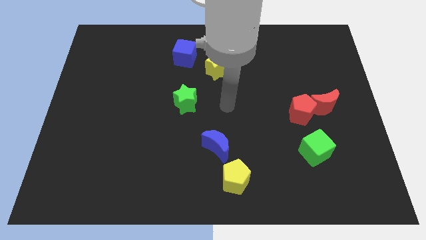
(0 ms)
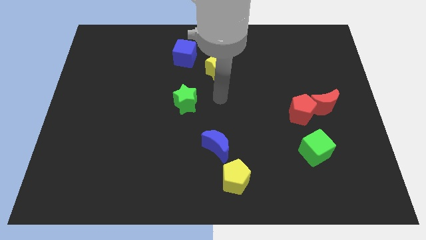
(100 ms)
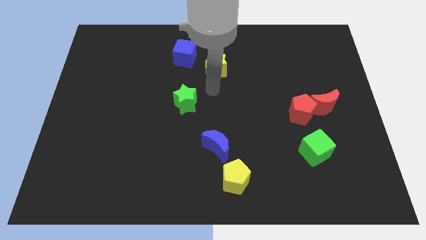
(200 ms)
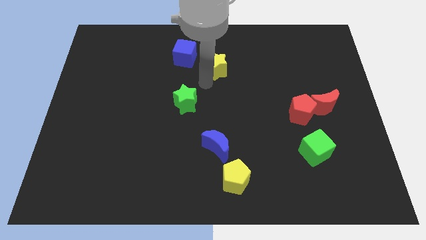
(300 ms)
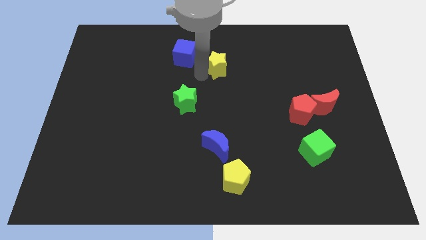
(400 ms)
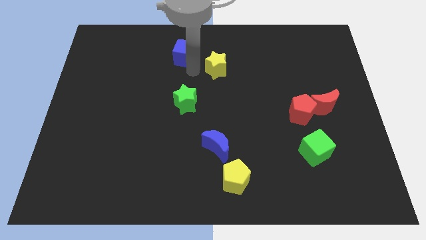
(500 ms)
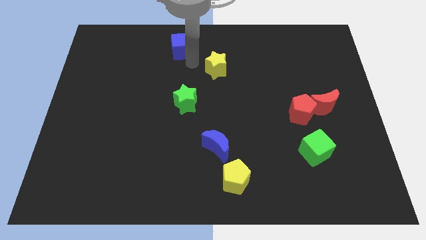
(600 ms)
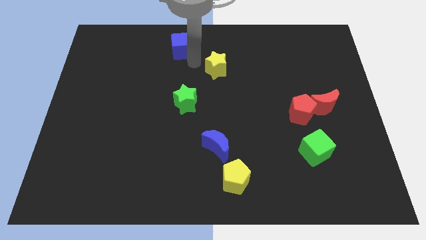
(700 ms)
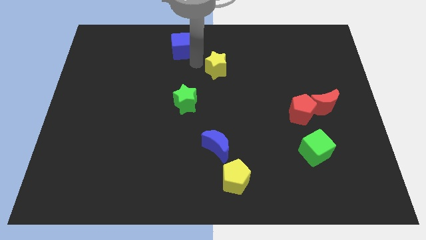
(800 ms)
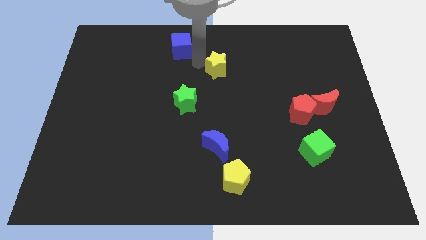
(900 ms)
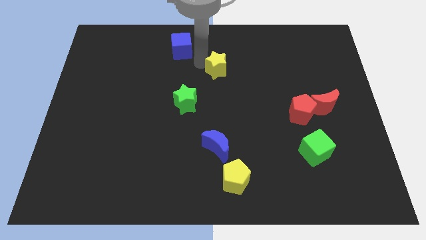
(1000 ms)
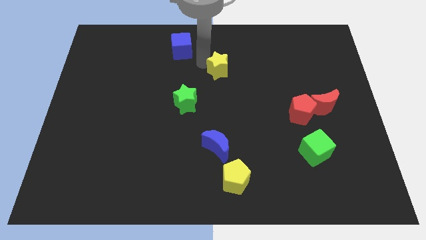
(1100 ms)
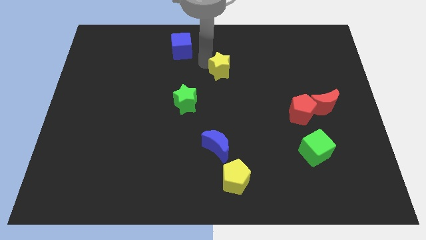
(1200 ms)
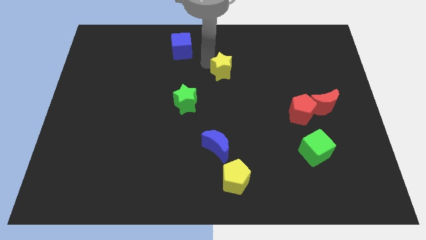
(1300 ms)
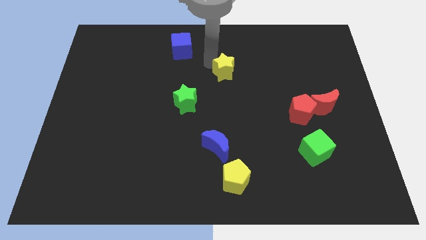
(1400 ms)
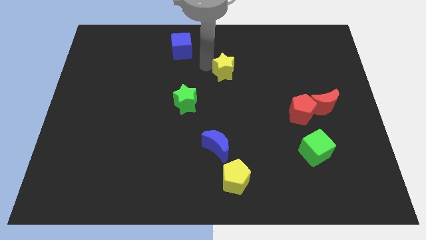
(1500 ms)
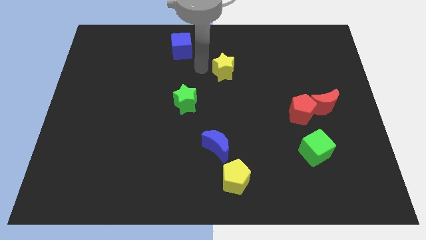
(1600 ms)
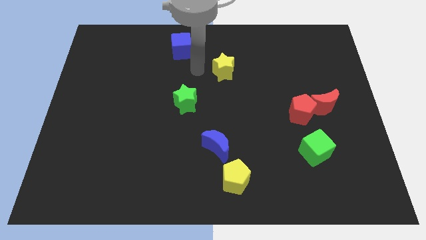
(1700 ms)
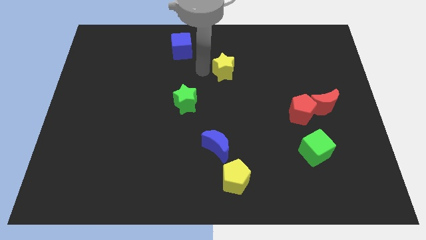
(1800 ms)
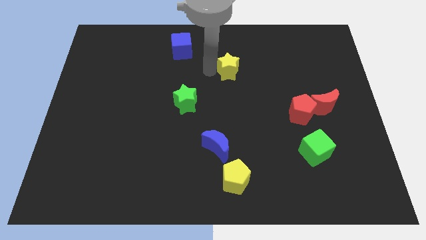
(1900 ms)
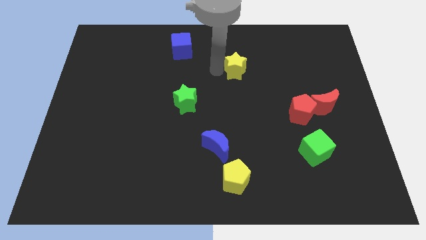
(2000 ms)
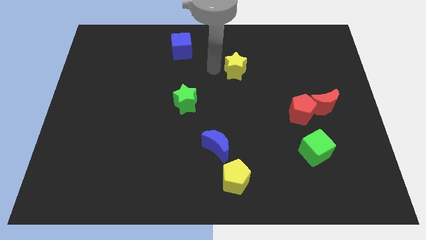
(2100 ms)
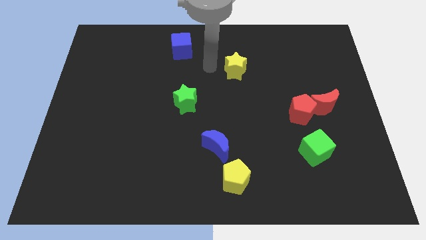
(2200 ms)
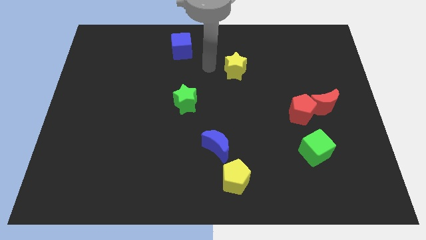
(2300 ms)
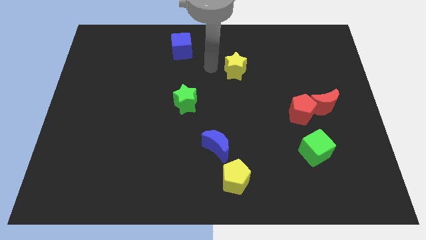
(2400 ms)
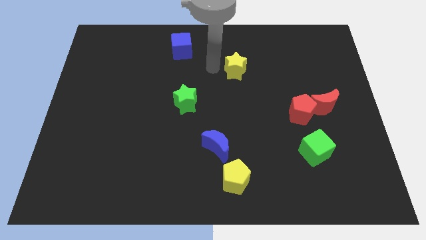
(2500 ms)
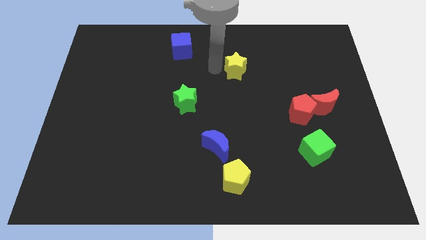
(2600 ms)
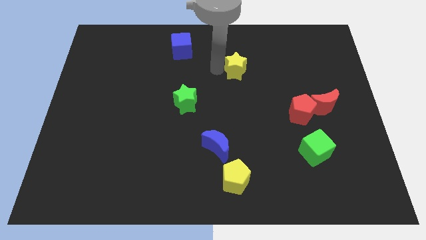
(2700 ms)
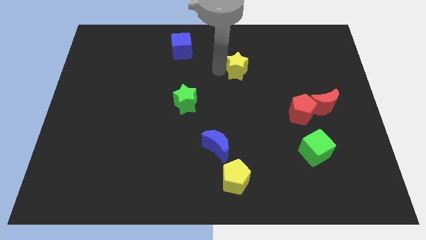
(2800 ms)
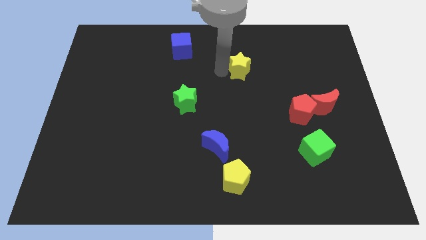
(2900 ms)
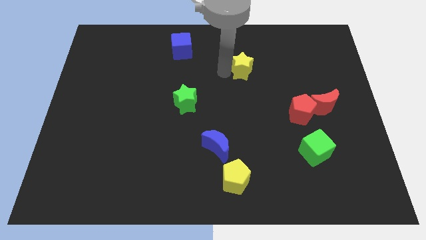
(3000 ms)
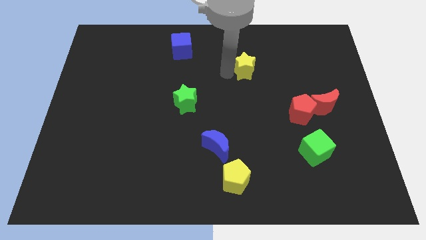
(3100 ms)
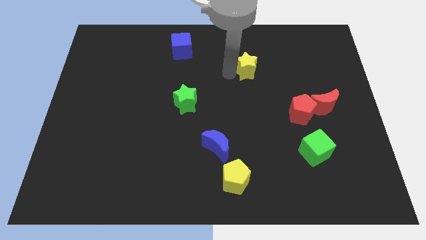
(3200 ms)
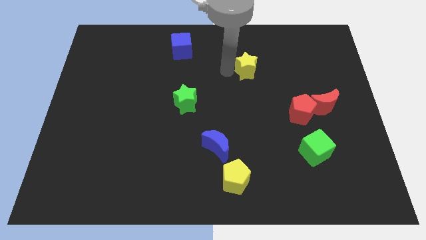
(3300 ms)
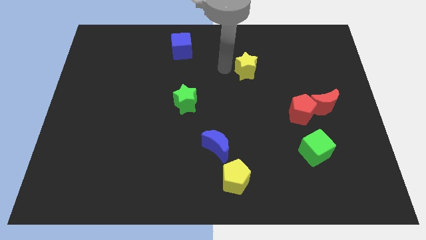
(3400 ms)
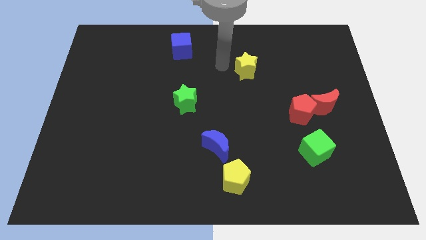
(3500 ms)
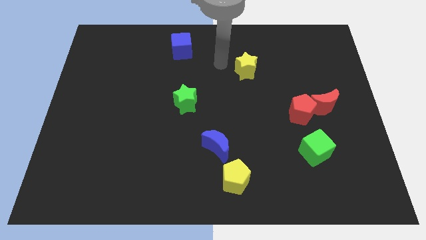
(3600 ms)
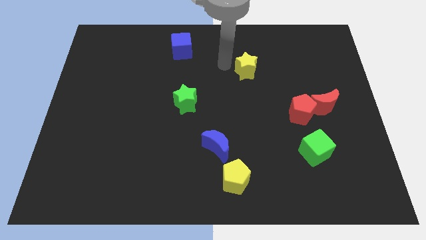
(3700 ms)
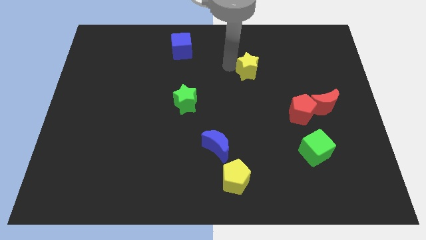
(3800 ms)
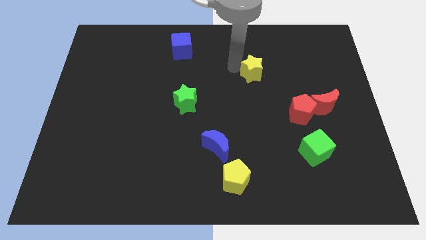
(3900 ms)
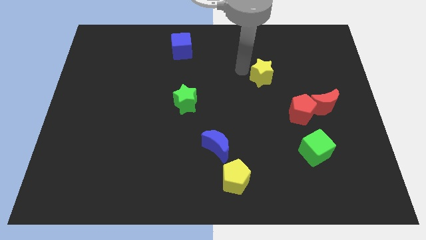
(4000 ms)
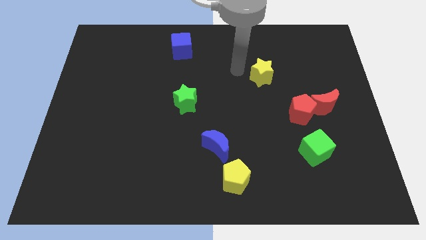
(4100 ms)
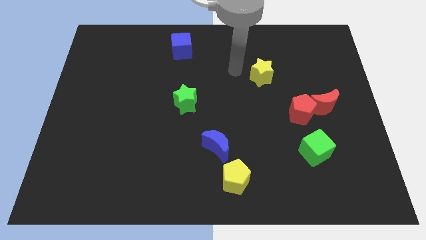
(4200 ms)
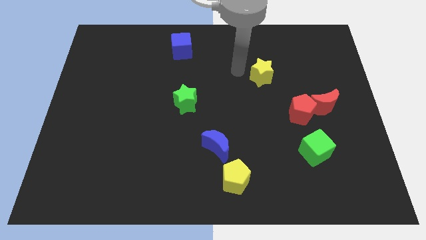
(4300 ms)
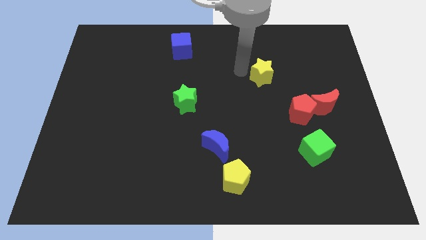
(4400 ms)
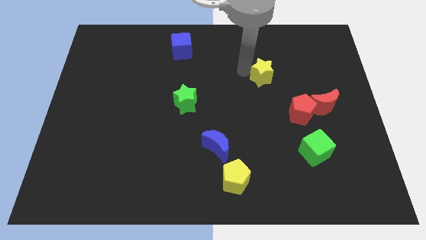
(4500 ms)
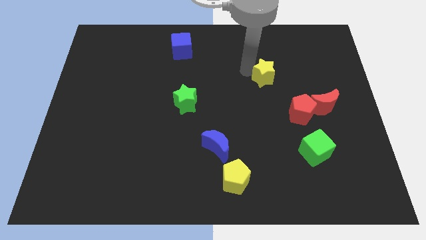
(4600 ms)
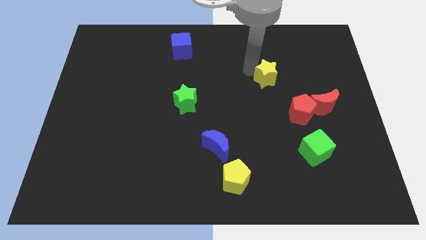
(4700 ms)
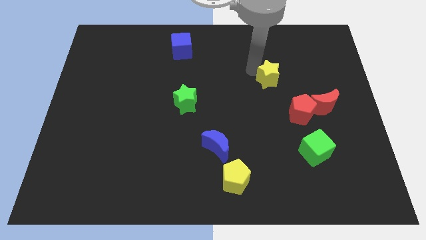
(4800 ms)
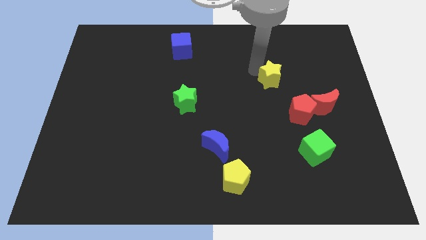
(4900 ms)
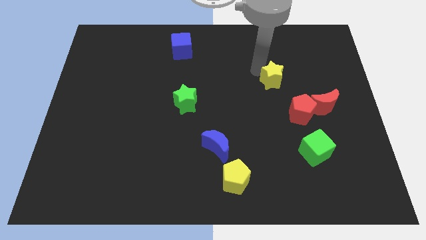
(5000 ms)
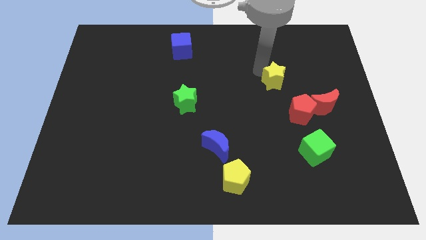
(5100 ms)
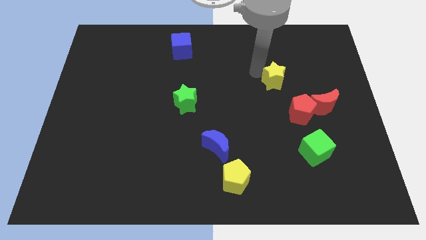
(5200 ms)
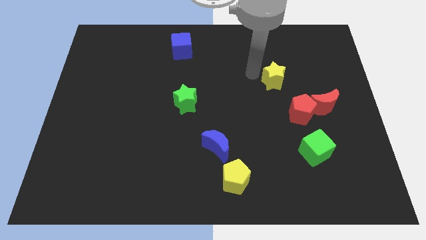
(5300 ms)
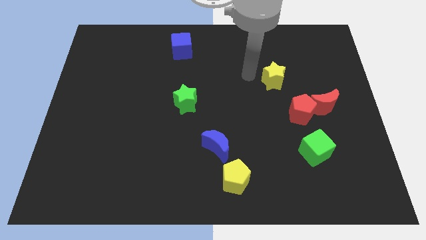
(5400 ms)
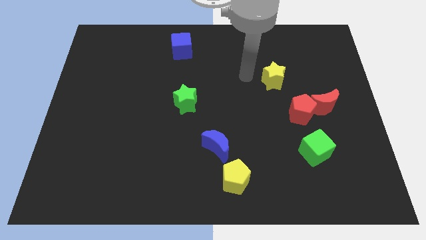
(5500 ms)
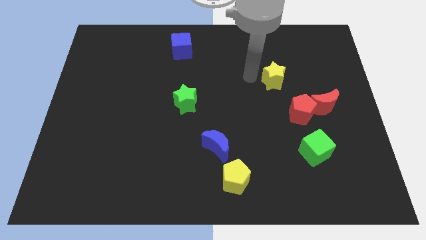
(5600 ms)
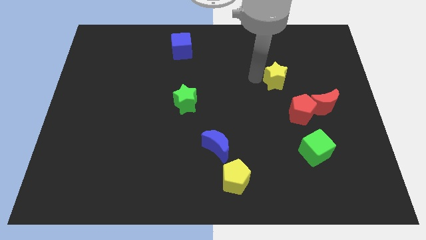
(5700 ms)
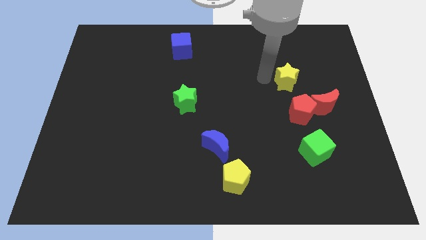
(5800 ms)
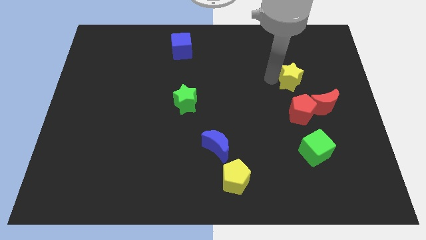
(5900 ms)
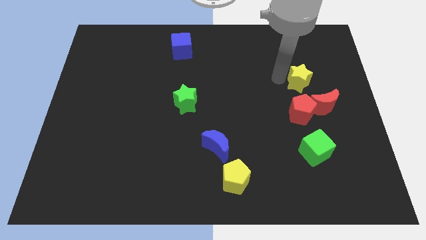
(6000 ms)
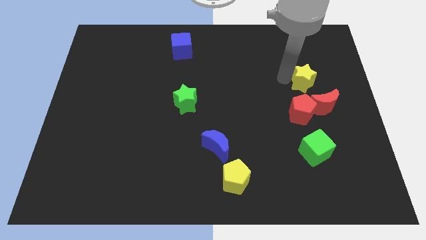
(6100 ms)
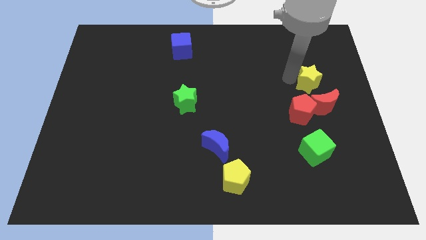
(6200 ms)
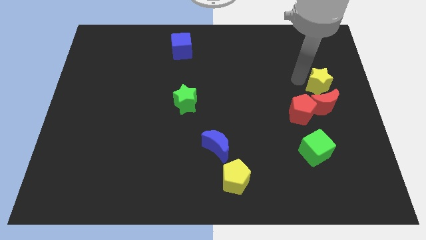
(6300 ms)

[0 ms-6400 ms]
put the yellow star to the right side
